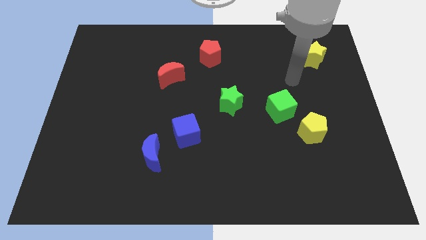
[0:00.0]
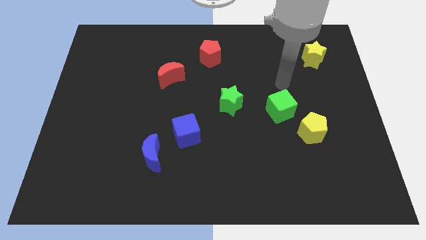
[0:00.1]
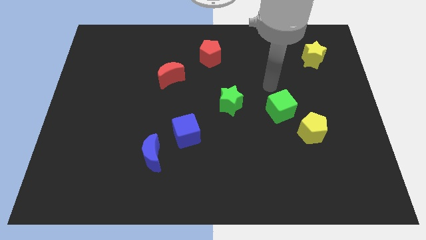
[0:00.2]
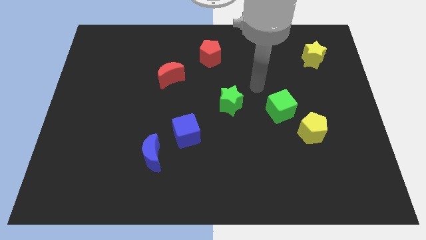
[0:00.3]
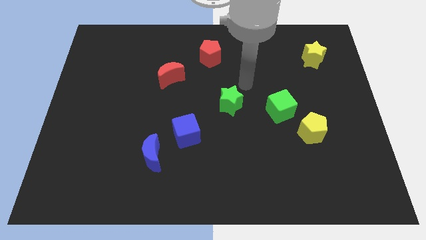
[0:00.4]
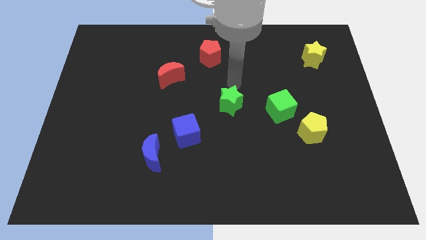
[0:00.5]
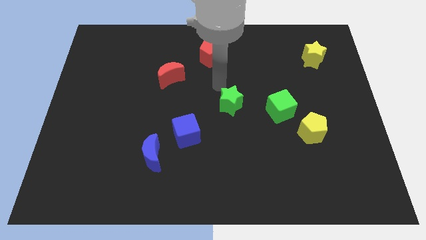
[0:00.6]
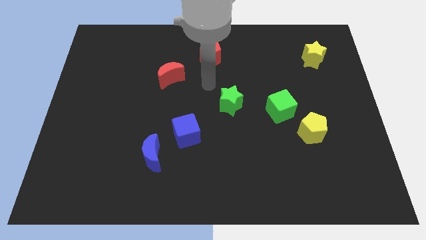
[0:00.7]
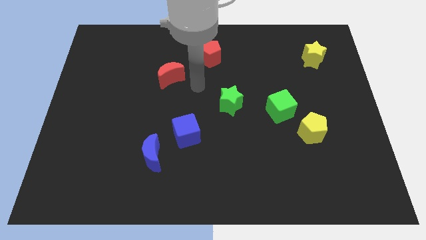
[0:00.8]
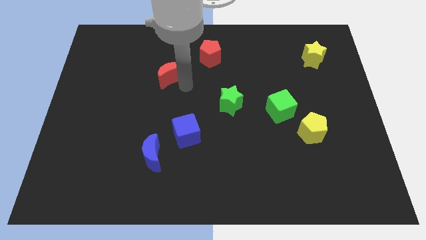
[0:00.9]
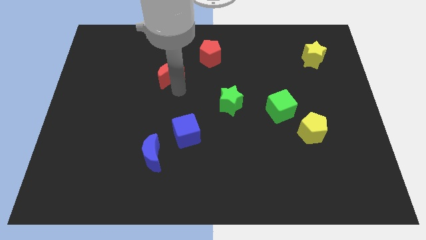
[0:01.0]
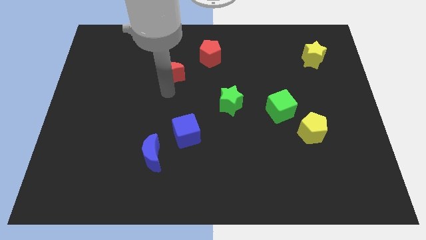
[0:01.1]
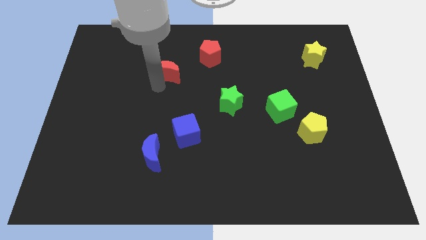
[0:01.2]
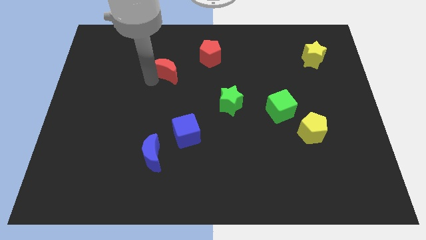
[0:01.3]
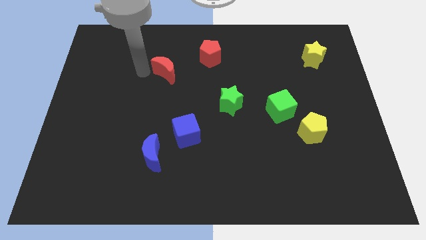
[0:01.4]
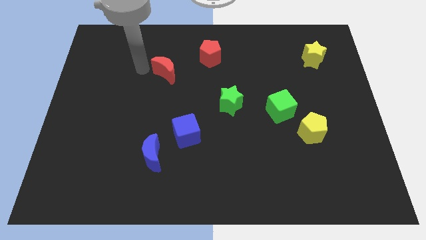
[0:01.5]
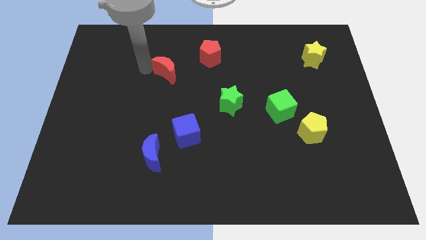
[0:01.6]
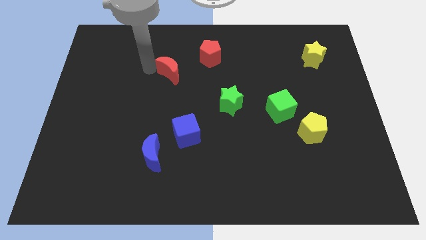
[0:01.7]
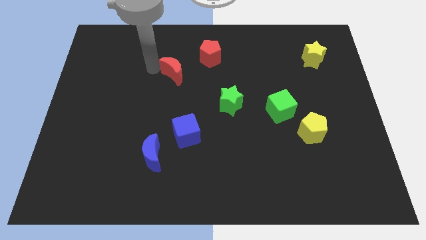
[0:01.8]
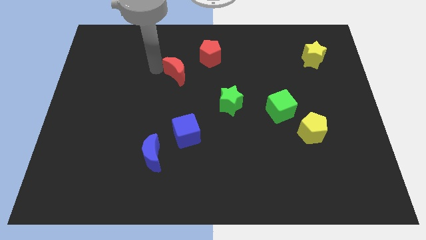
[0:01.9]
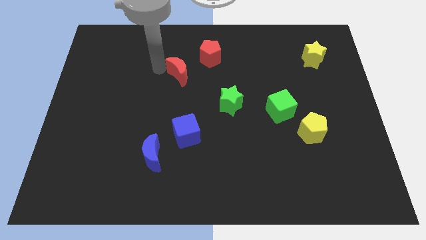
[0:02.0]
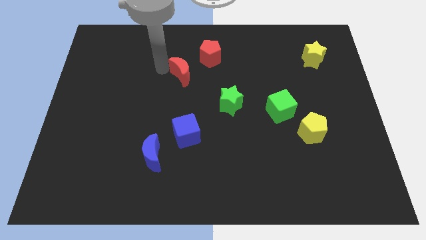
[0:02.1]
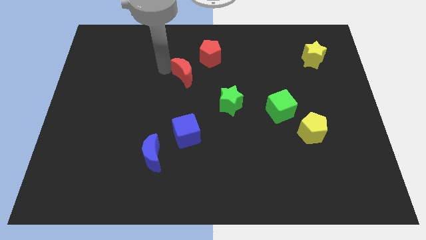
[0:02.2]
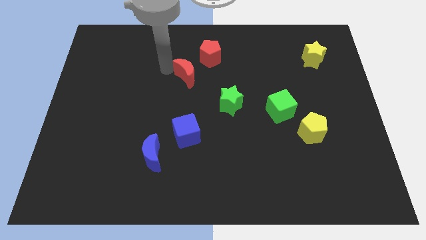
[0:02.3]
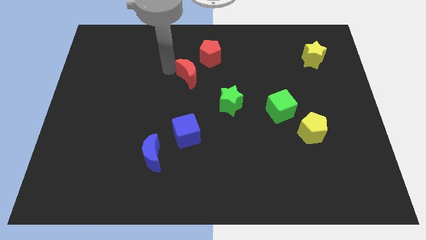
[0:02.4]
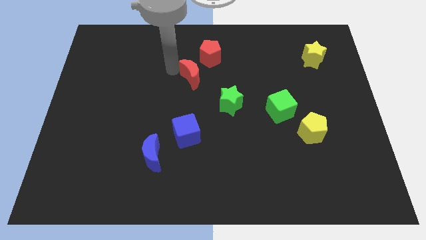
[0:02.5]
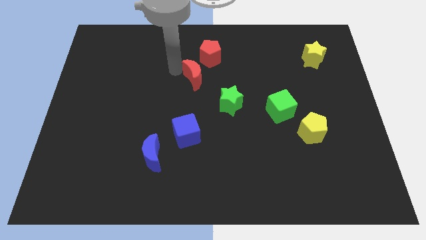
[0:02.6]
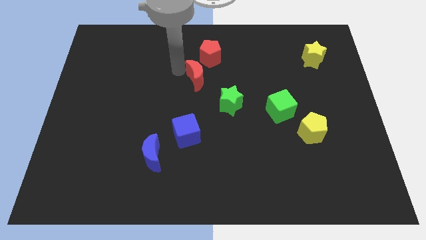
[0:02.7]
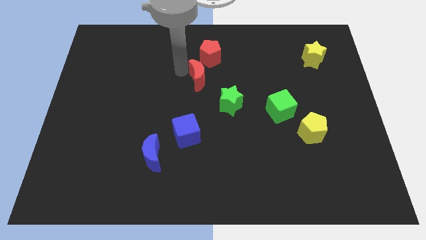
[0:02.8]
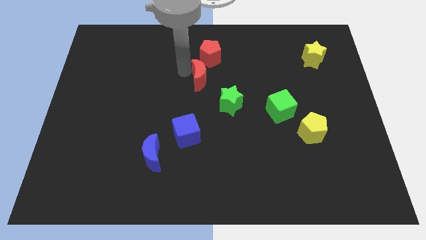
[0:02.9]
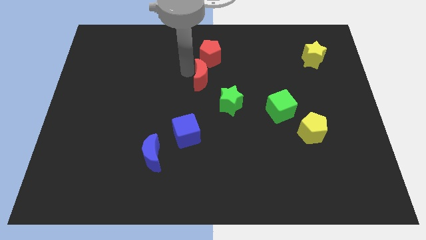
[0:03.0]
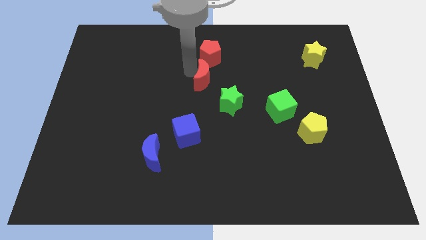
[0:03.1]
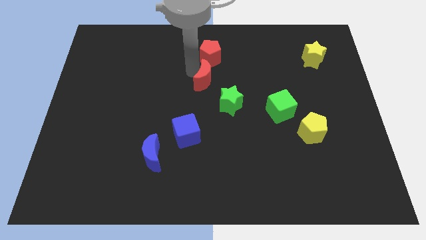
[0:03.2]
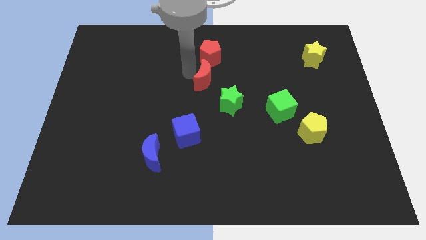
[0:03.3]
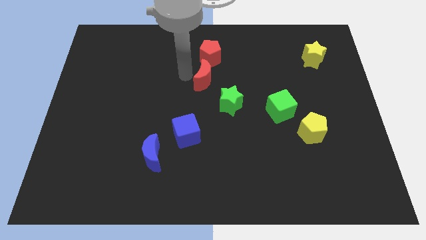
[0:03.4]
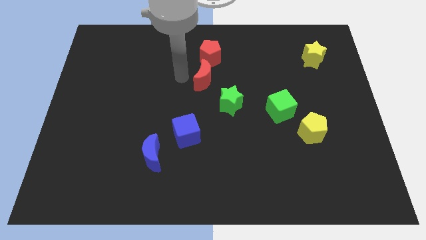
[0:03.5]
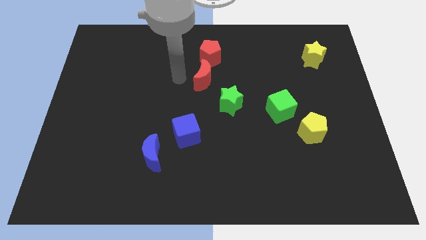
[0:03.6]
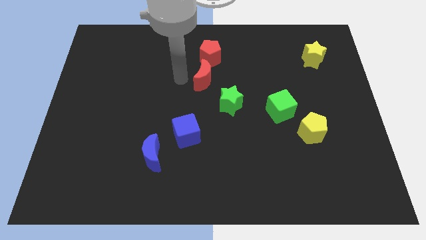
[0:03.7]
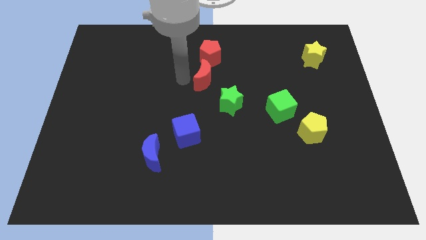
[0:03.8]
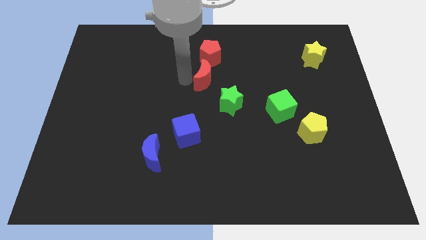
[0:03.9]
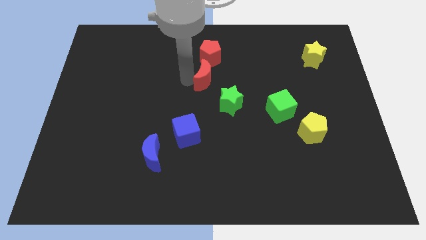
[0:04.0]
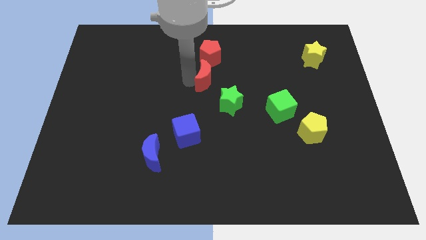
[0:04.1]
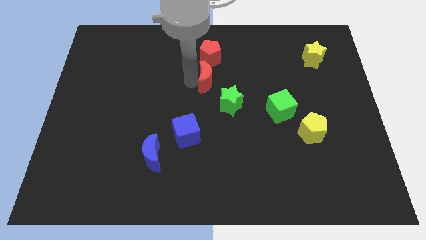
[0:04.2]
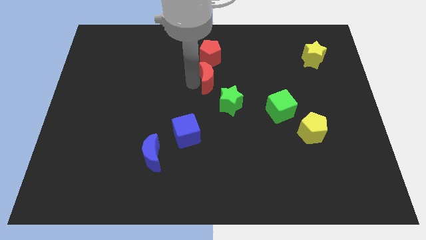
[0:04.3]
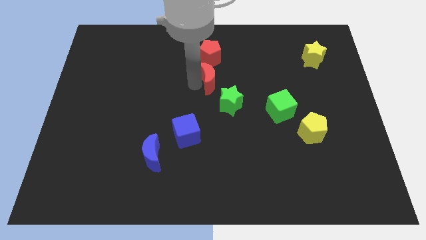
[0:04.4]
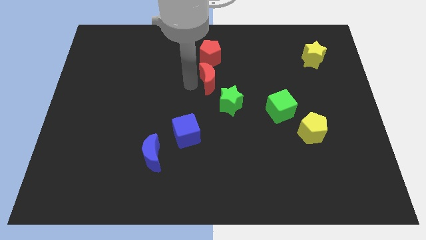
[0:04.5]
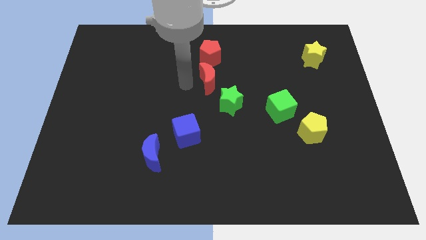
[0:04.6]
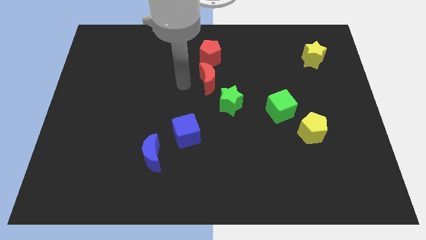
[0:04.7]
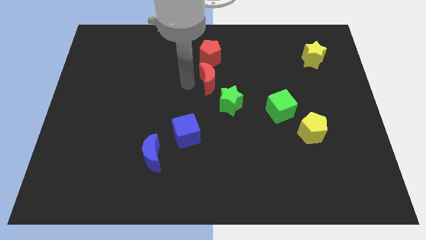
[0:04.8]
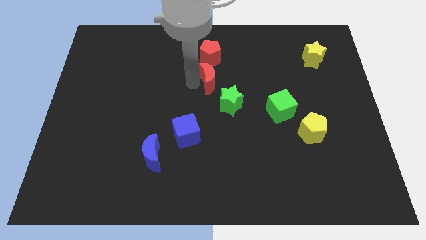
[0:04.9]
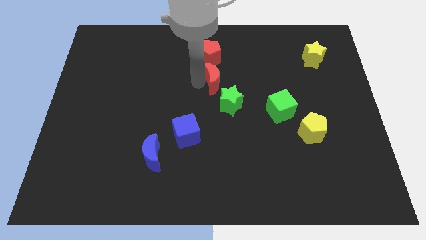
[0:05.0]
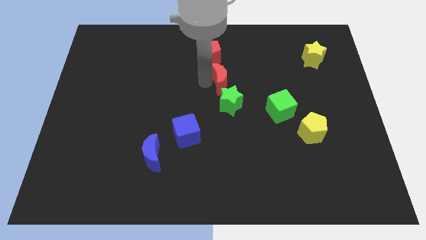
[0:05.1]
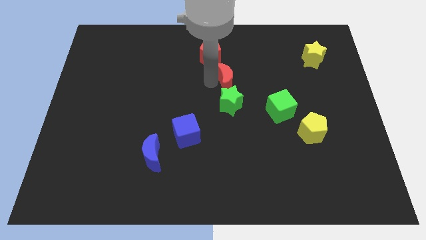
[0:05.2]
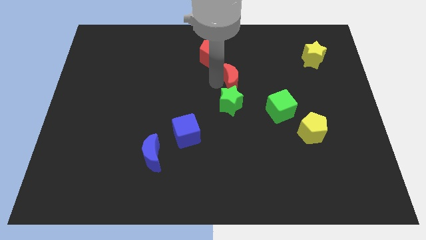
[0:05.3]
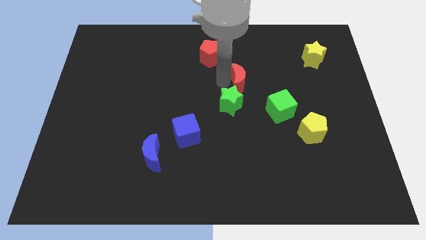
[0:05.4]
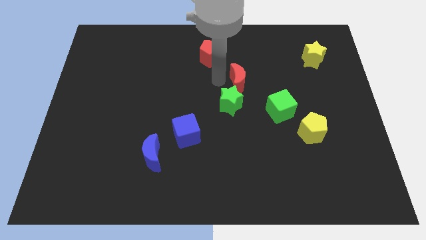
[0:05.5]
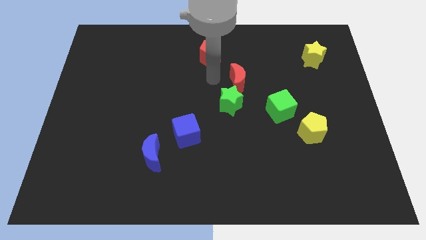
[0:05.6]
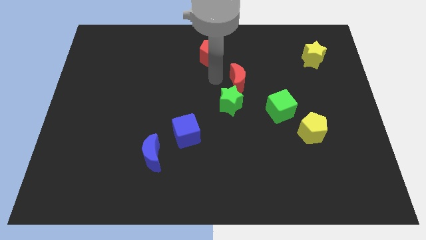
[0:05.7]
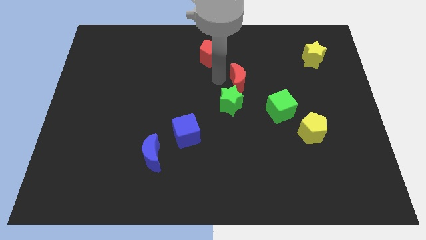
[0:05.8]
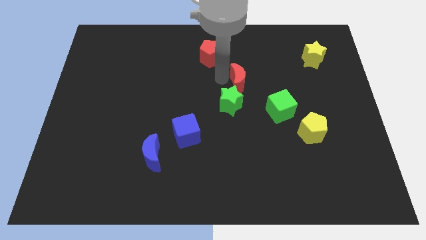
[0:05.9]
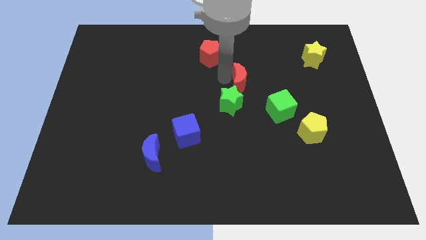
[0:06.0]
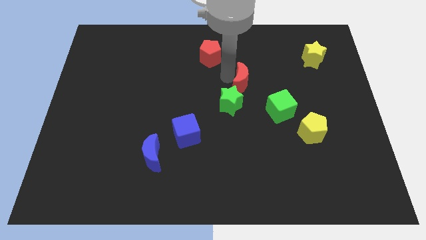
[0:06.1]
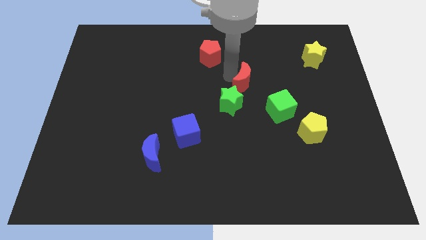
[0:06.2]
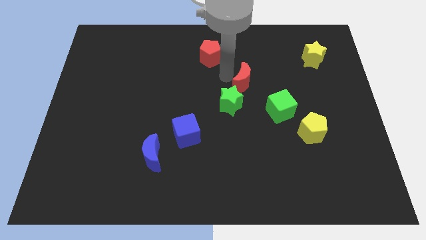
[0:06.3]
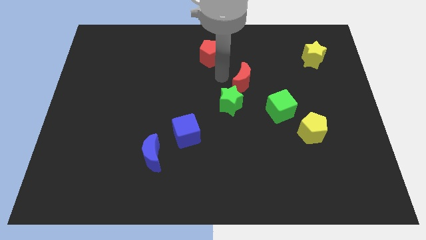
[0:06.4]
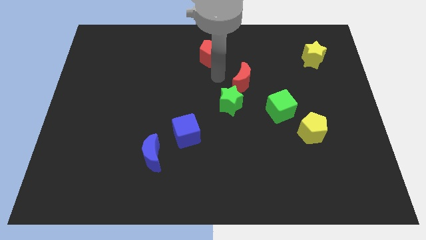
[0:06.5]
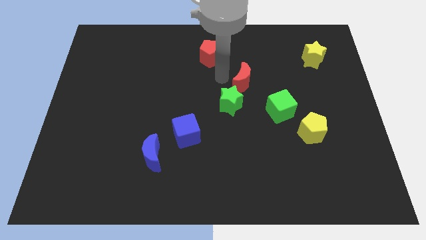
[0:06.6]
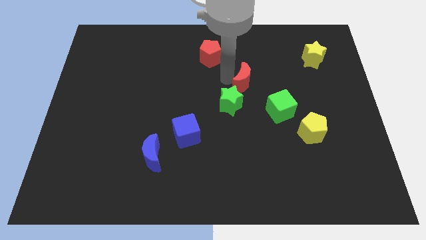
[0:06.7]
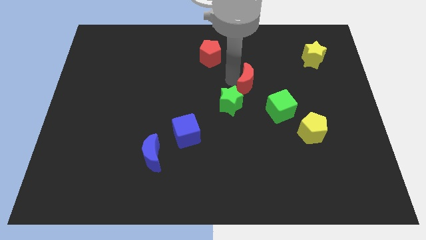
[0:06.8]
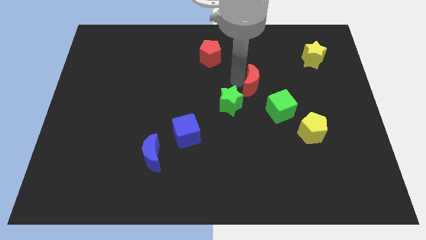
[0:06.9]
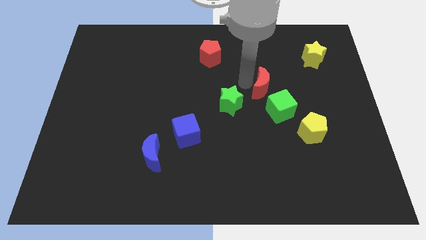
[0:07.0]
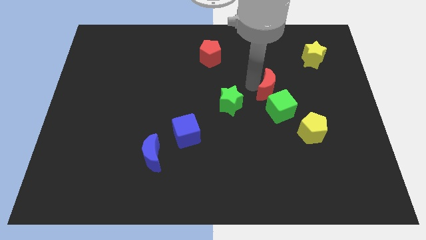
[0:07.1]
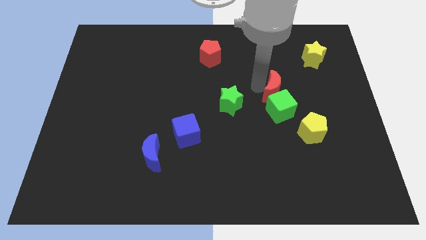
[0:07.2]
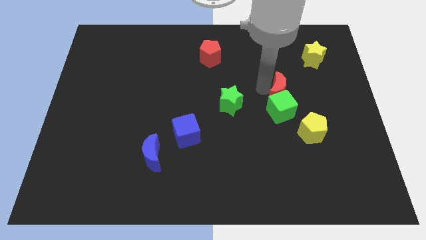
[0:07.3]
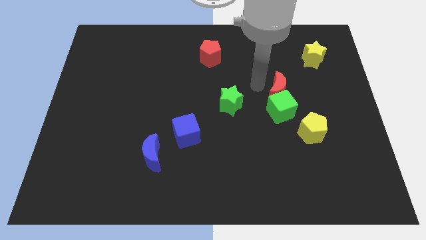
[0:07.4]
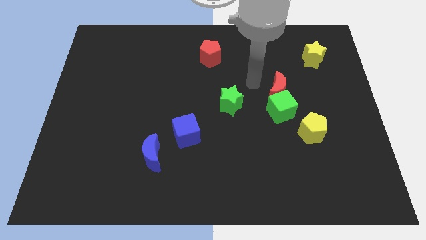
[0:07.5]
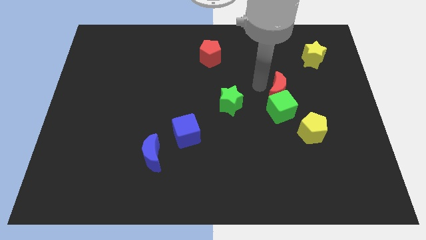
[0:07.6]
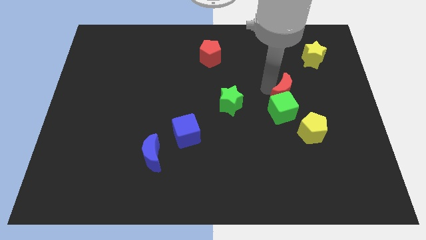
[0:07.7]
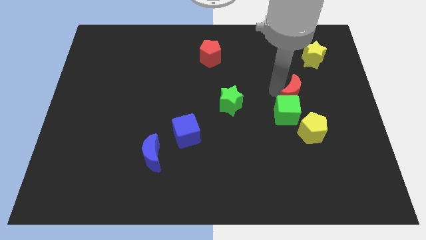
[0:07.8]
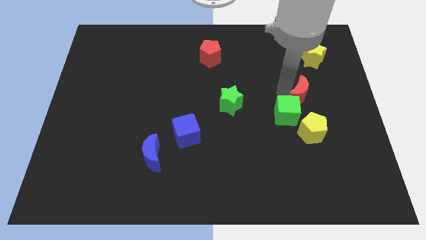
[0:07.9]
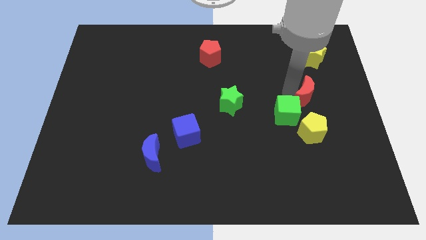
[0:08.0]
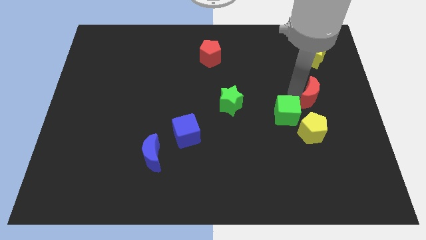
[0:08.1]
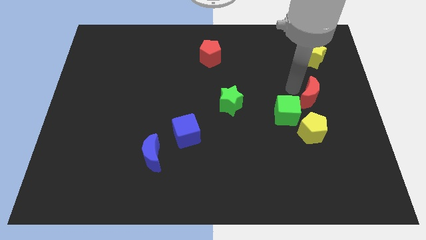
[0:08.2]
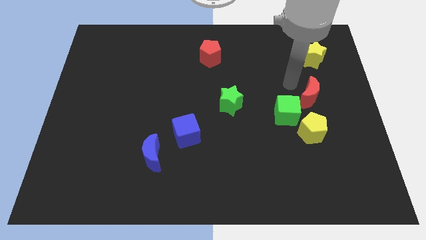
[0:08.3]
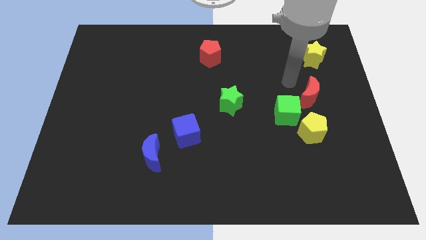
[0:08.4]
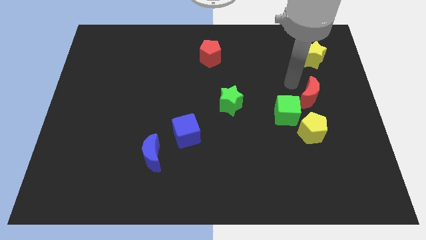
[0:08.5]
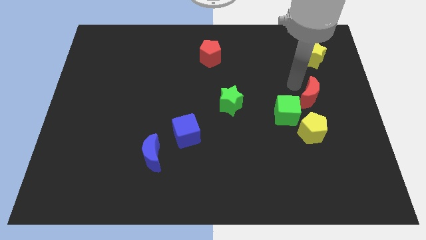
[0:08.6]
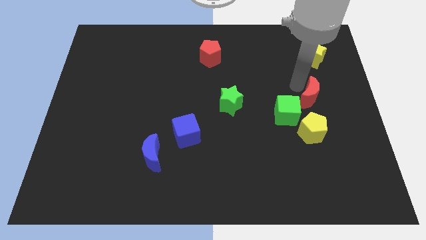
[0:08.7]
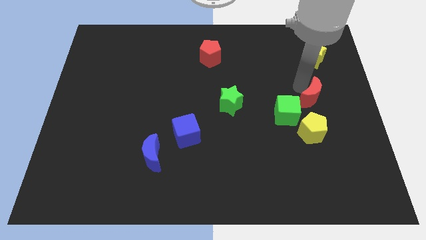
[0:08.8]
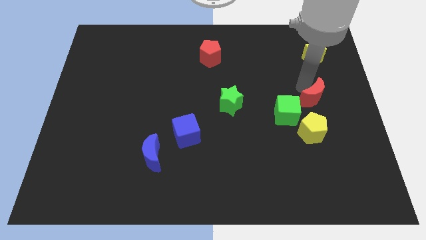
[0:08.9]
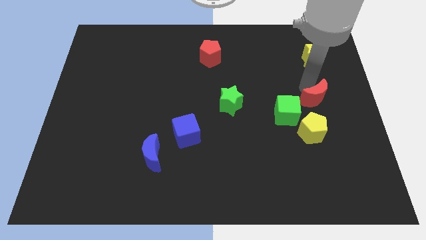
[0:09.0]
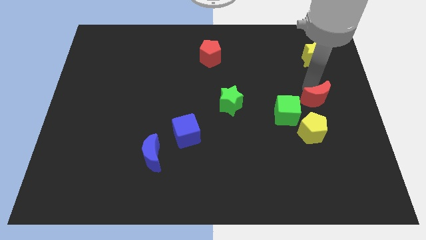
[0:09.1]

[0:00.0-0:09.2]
push the red moon diagonally up and to the right of the yellow pentagon
